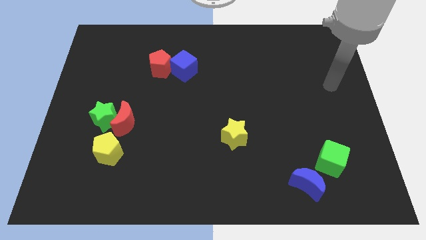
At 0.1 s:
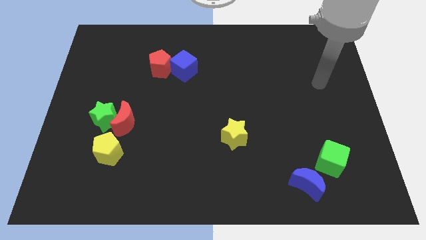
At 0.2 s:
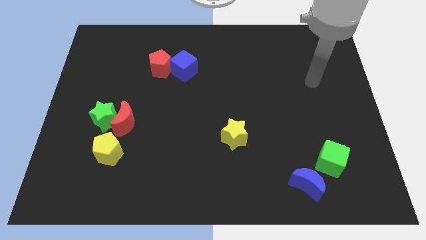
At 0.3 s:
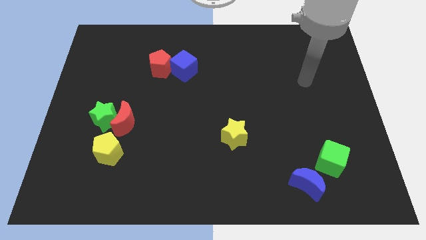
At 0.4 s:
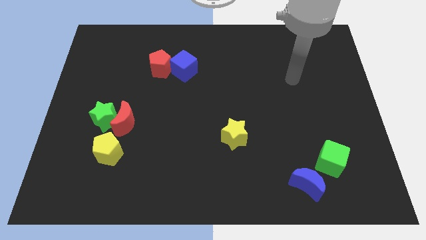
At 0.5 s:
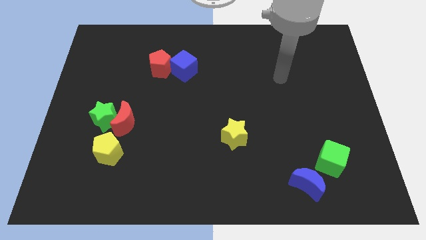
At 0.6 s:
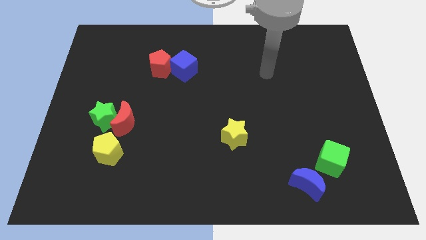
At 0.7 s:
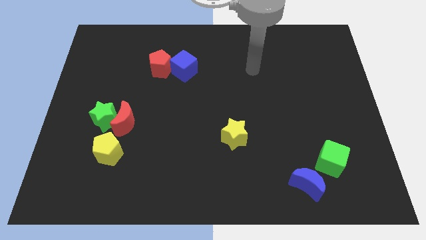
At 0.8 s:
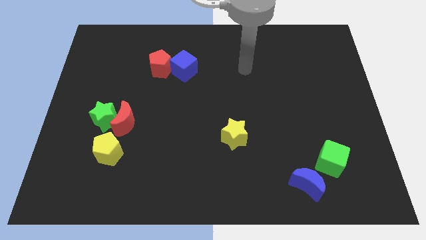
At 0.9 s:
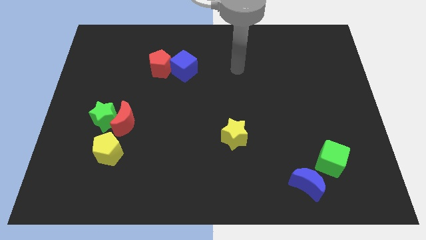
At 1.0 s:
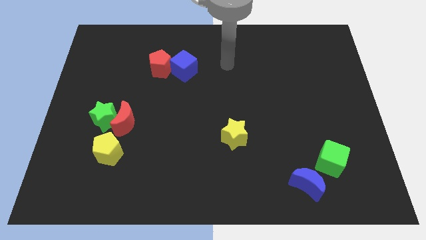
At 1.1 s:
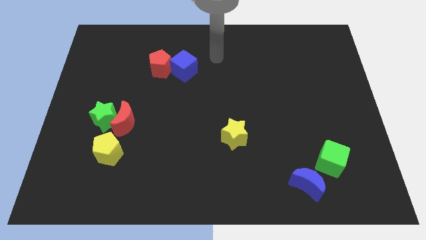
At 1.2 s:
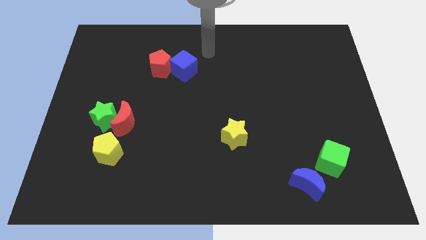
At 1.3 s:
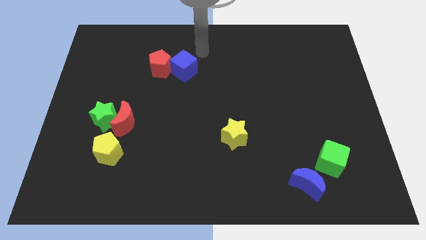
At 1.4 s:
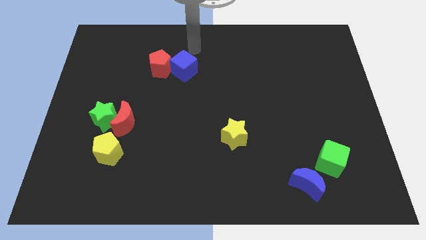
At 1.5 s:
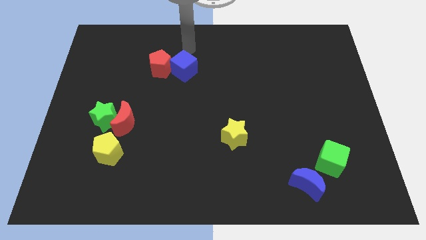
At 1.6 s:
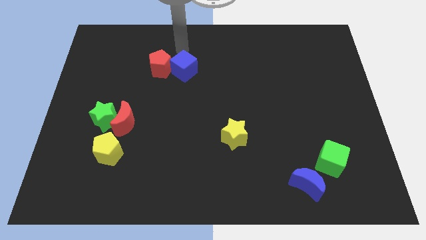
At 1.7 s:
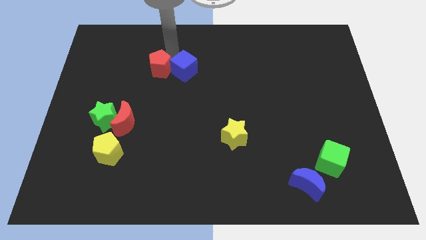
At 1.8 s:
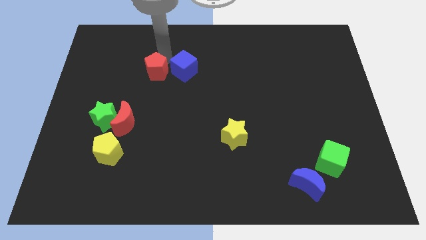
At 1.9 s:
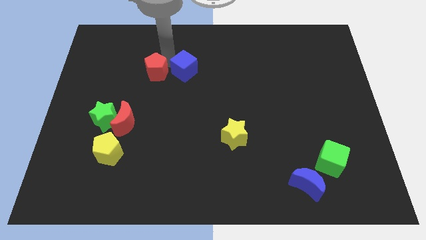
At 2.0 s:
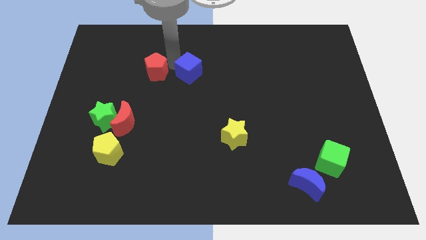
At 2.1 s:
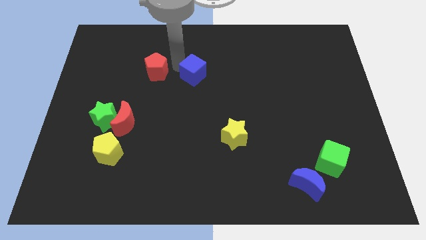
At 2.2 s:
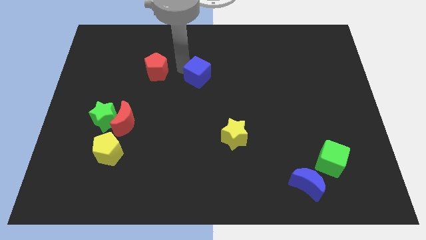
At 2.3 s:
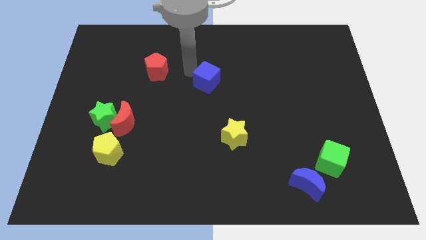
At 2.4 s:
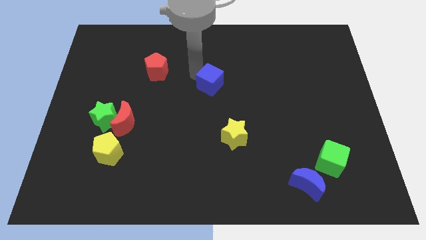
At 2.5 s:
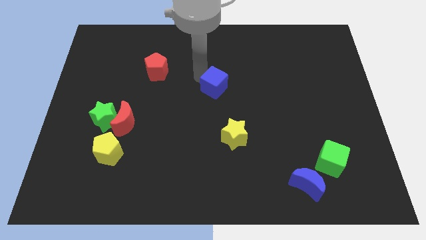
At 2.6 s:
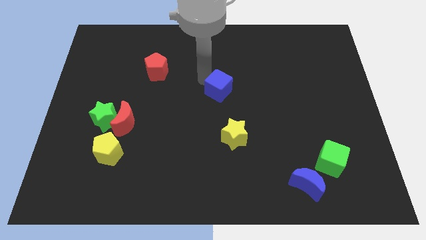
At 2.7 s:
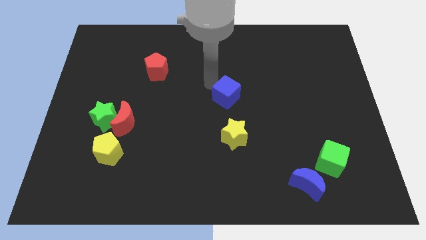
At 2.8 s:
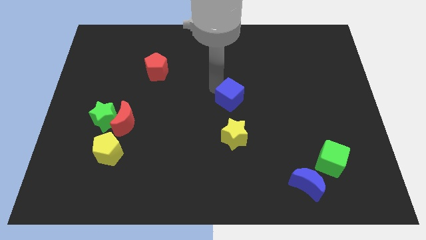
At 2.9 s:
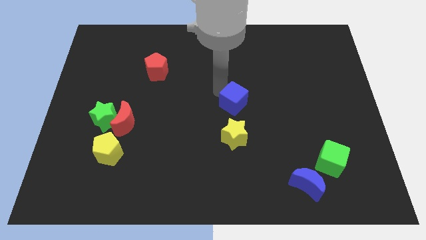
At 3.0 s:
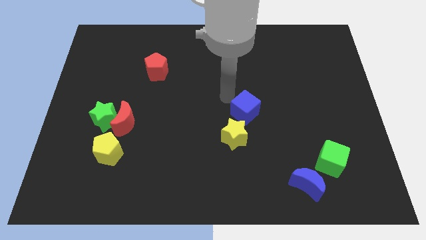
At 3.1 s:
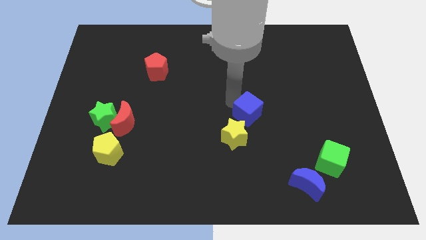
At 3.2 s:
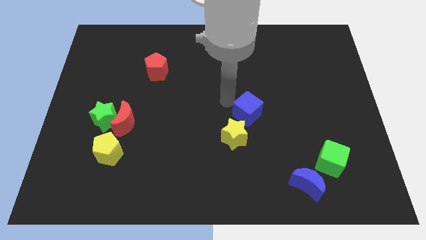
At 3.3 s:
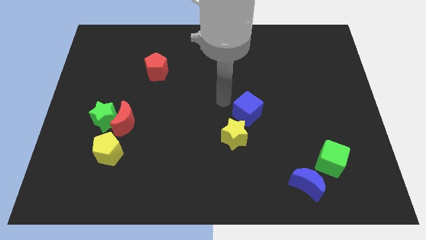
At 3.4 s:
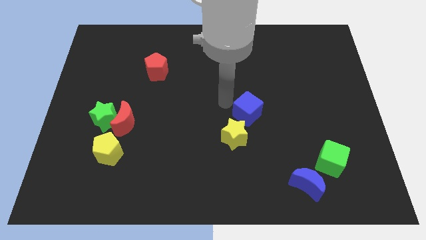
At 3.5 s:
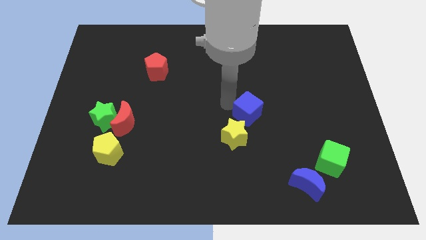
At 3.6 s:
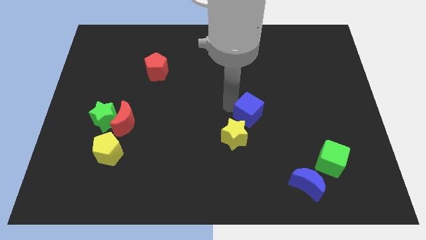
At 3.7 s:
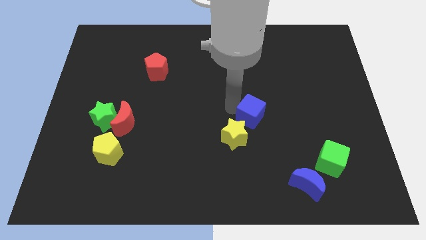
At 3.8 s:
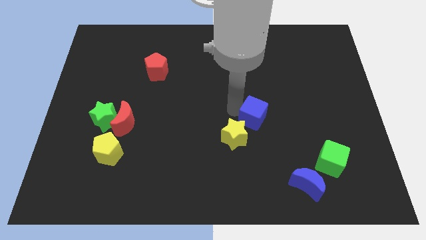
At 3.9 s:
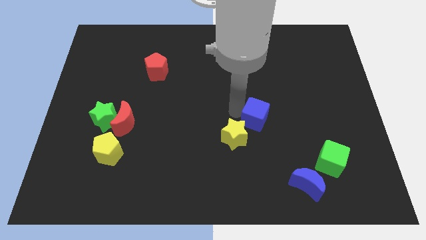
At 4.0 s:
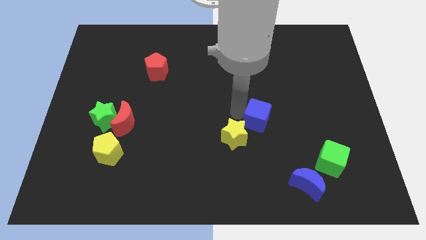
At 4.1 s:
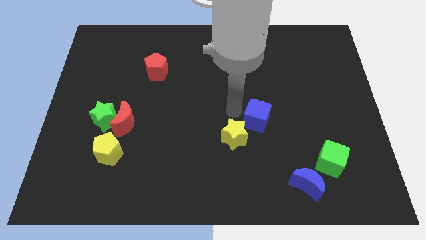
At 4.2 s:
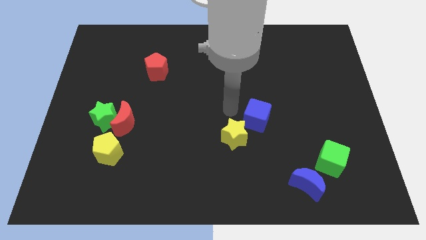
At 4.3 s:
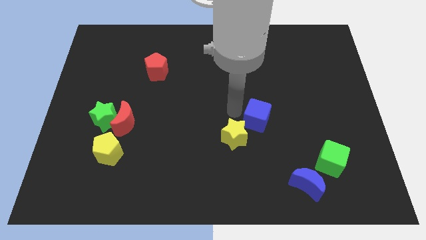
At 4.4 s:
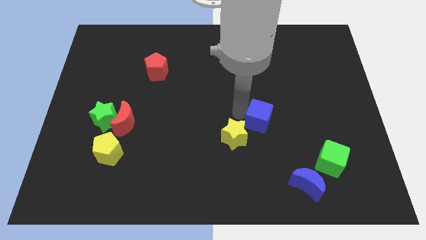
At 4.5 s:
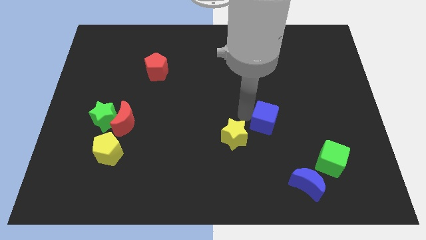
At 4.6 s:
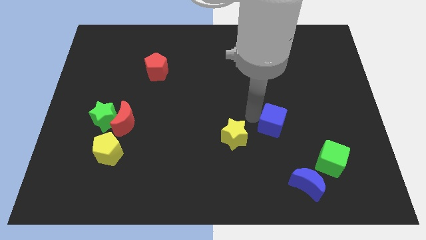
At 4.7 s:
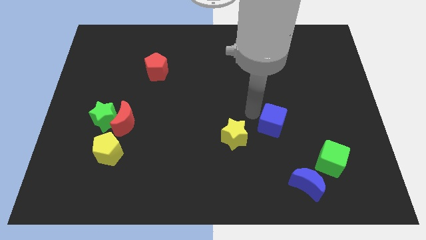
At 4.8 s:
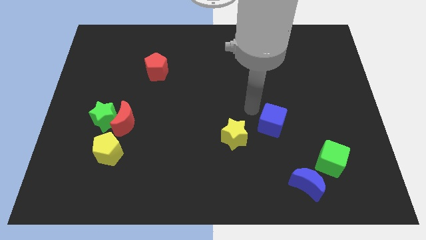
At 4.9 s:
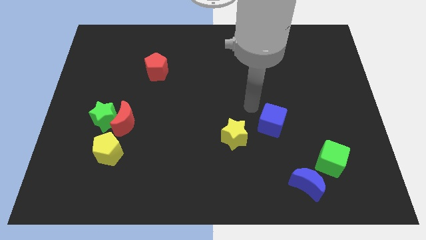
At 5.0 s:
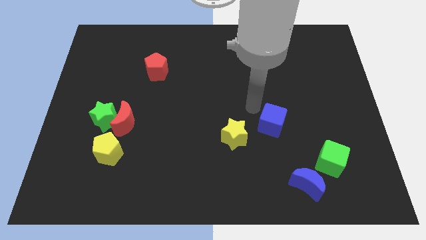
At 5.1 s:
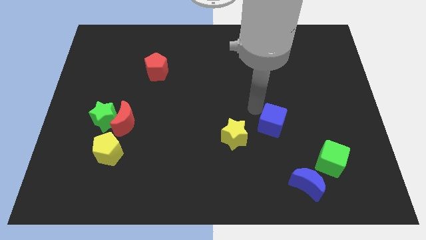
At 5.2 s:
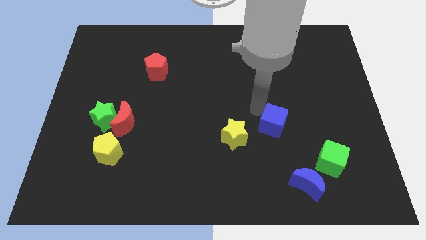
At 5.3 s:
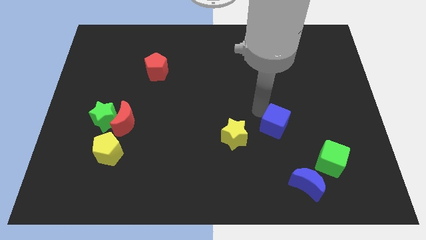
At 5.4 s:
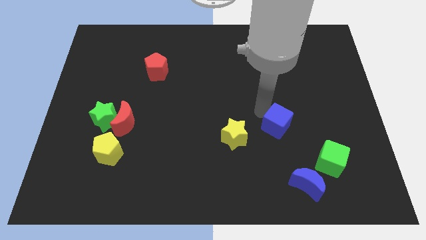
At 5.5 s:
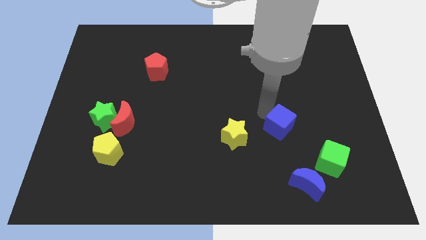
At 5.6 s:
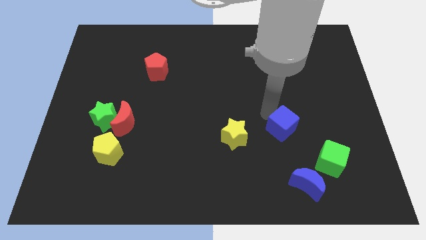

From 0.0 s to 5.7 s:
put the blue cube to the top of the blue moon

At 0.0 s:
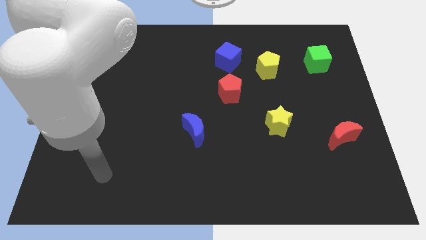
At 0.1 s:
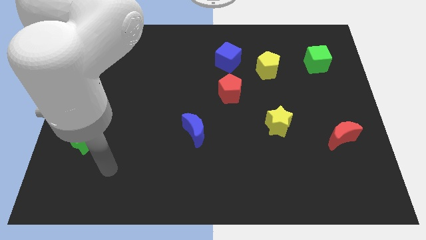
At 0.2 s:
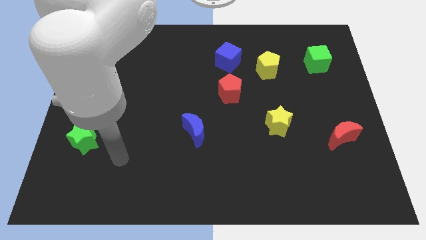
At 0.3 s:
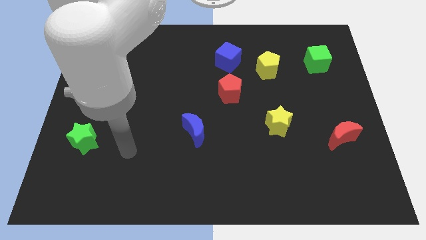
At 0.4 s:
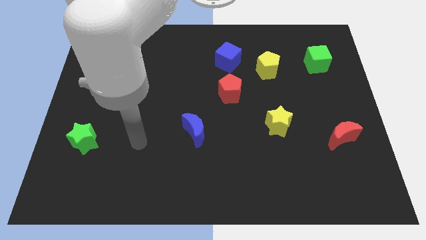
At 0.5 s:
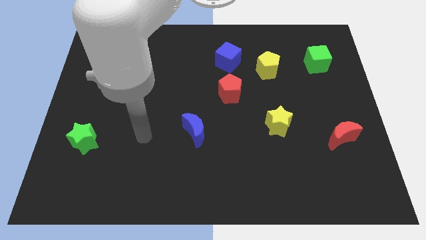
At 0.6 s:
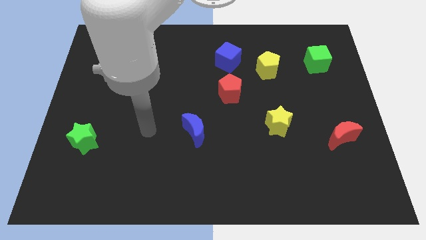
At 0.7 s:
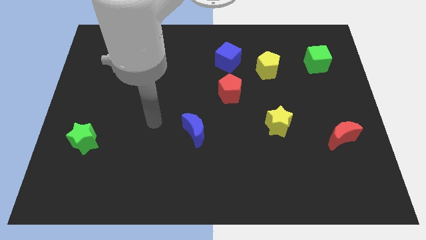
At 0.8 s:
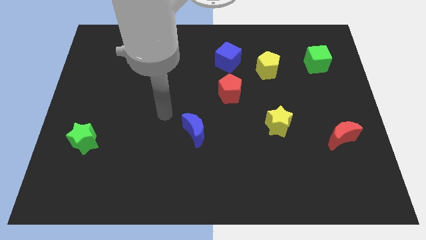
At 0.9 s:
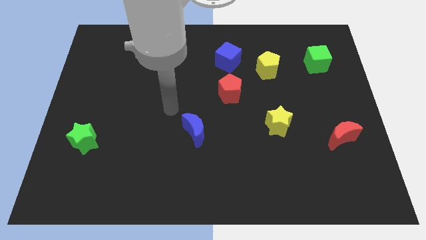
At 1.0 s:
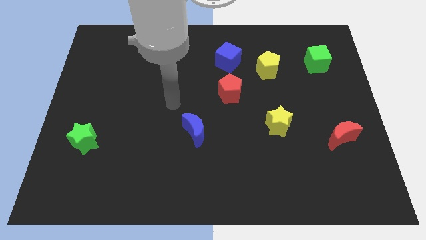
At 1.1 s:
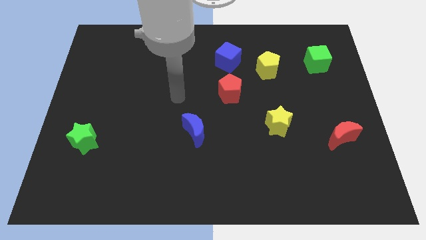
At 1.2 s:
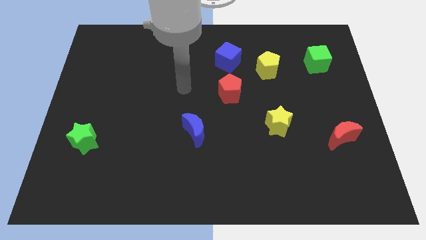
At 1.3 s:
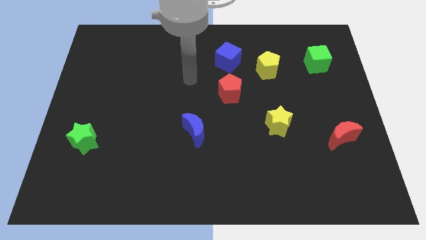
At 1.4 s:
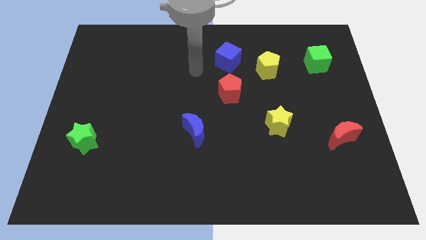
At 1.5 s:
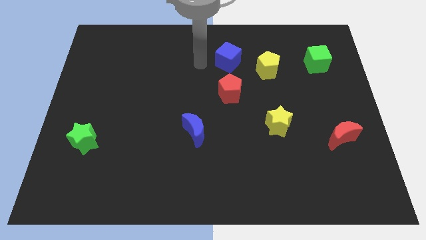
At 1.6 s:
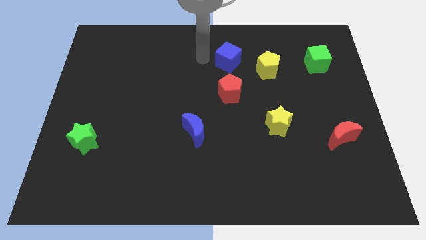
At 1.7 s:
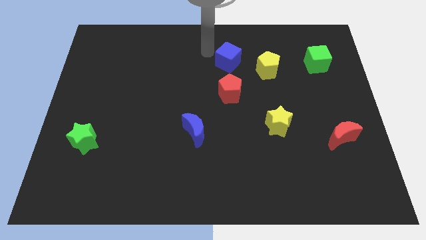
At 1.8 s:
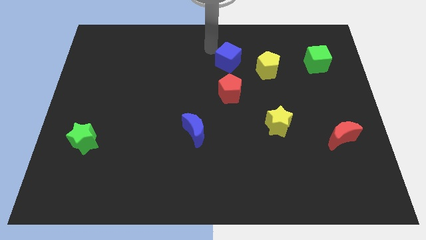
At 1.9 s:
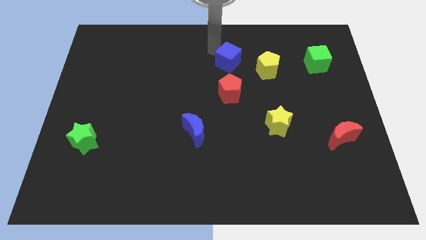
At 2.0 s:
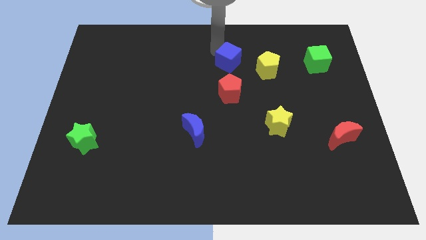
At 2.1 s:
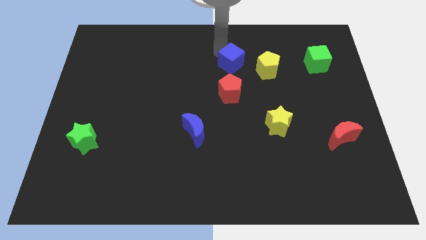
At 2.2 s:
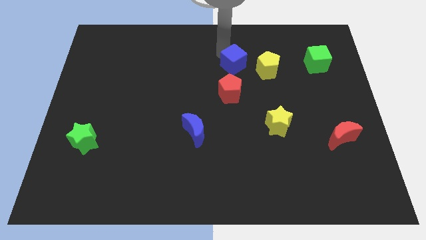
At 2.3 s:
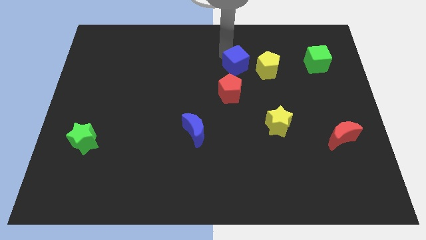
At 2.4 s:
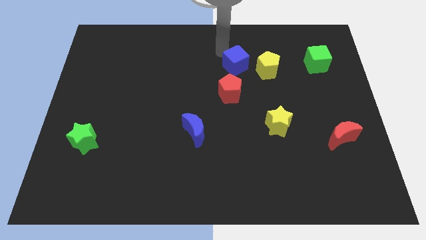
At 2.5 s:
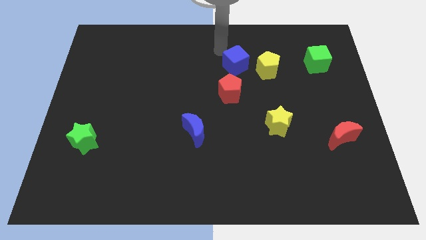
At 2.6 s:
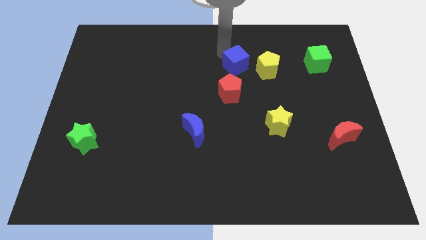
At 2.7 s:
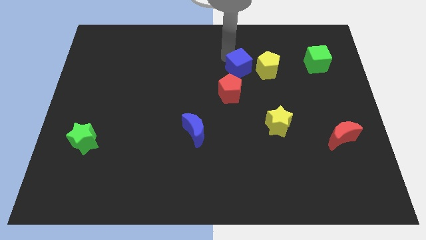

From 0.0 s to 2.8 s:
put the blue cube to the top right of the red pentagon
